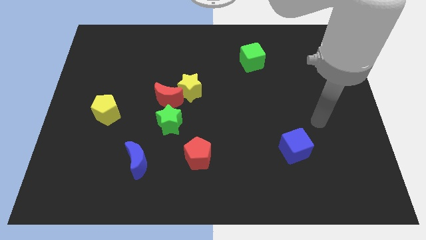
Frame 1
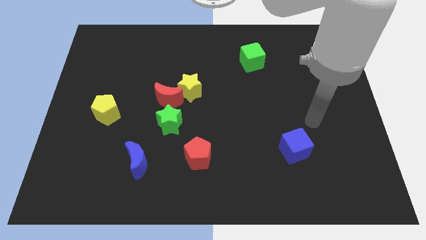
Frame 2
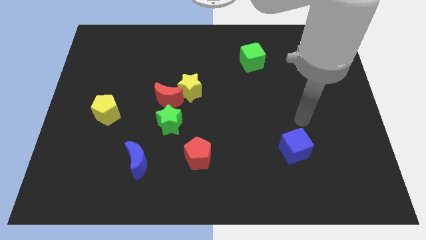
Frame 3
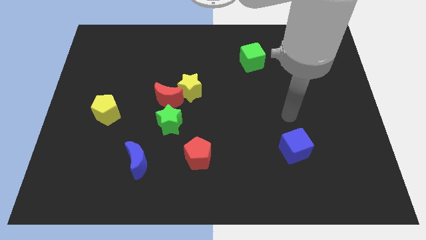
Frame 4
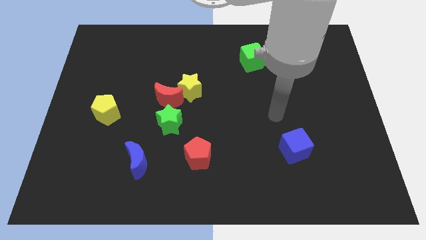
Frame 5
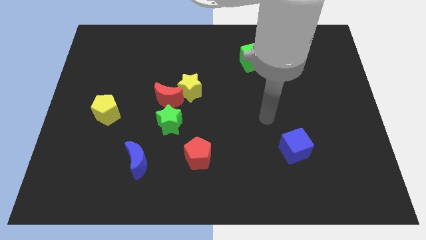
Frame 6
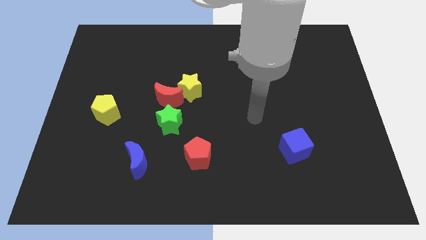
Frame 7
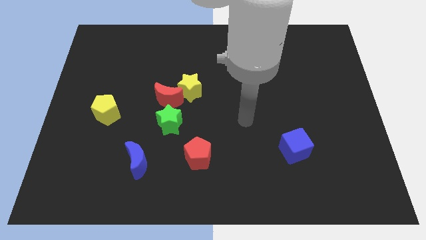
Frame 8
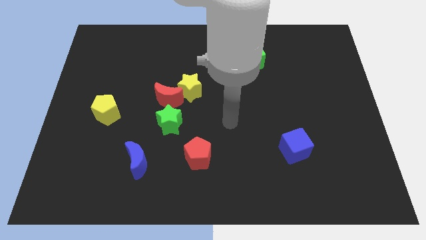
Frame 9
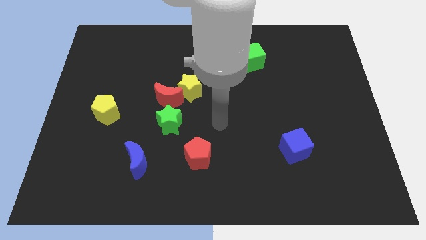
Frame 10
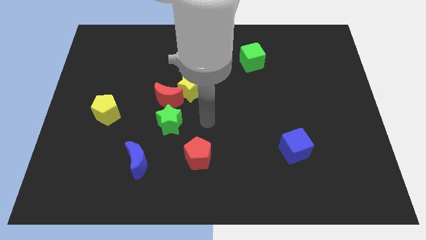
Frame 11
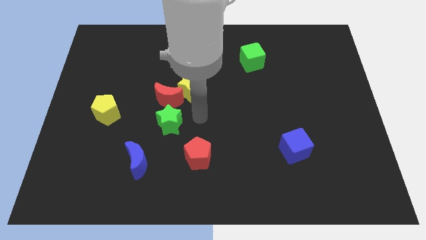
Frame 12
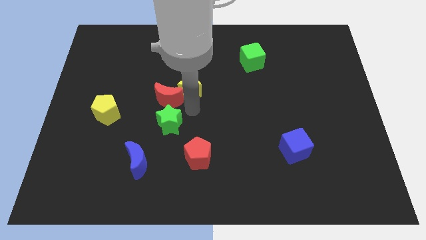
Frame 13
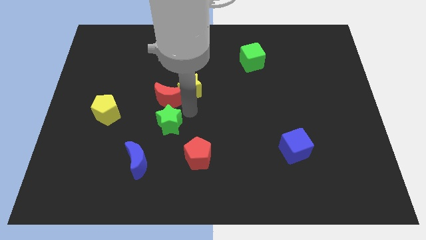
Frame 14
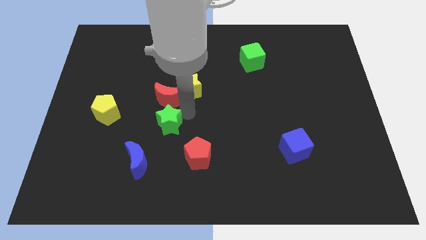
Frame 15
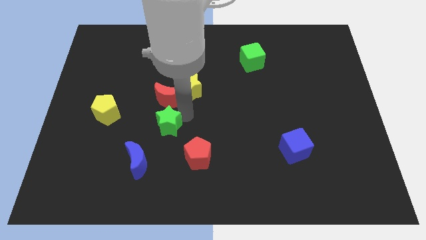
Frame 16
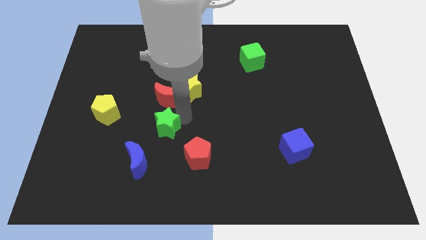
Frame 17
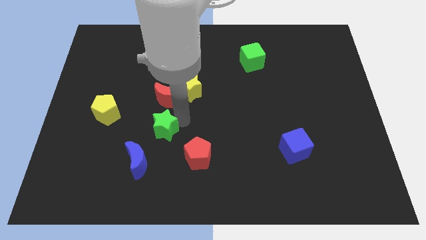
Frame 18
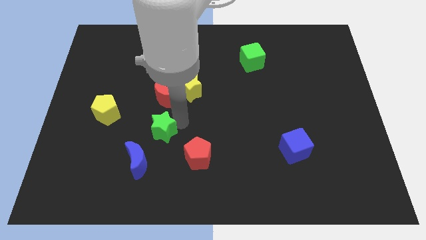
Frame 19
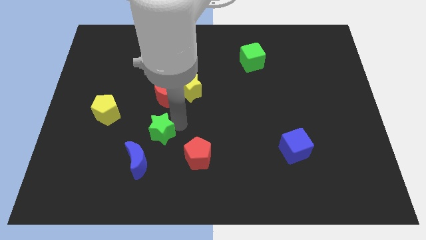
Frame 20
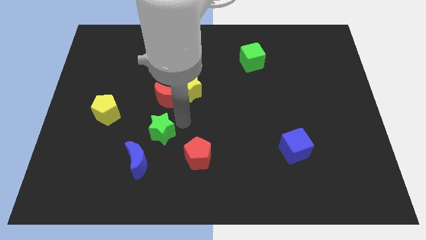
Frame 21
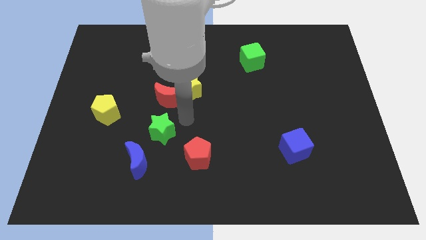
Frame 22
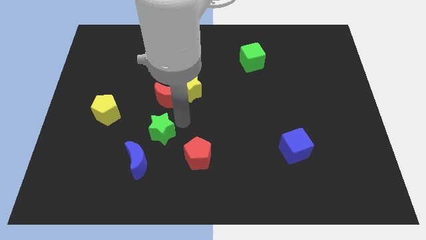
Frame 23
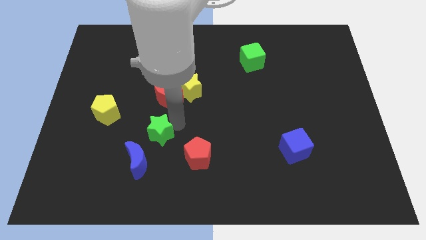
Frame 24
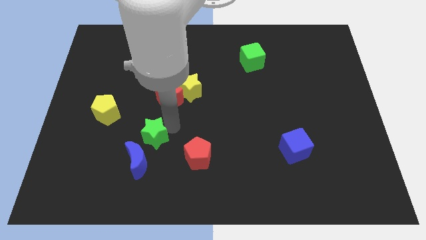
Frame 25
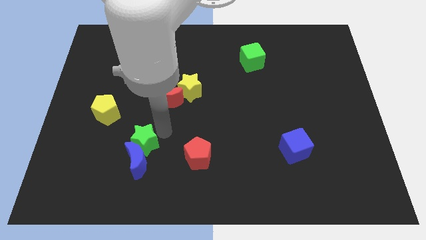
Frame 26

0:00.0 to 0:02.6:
slide the green star a little bit downwards and left diagonally

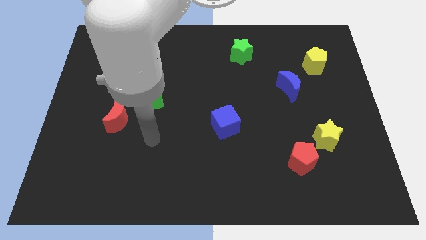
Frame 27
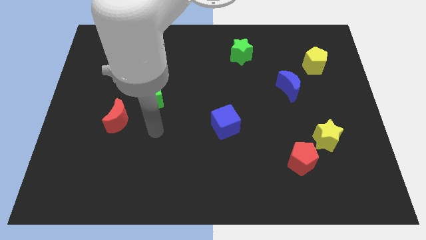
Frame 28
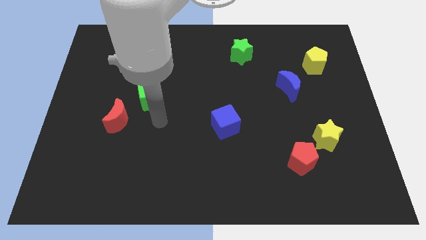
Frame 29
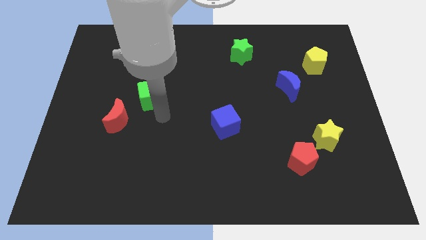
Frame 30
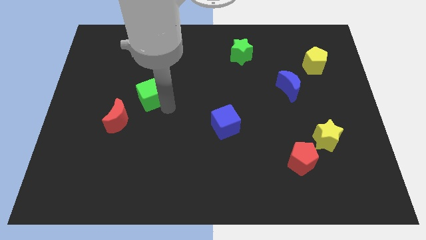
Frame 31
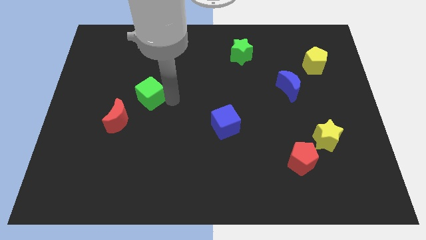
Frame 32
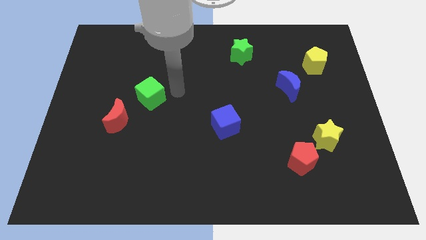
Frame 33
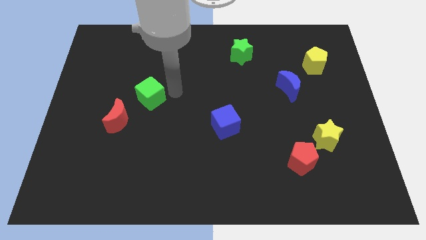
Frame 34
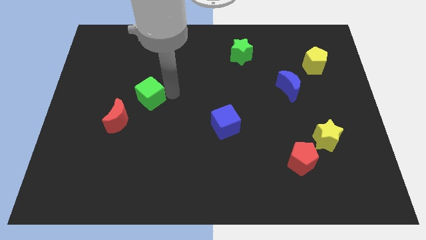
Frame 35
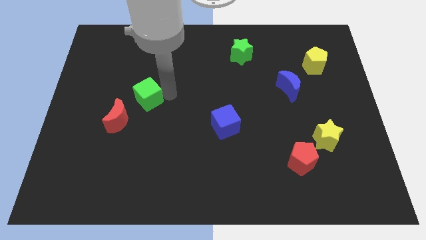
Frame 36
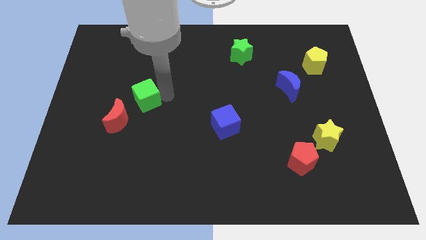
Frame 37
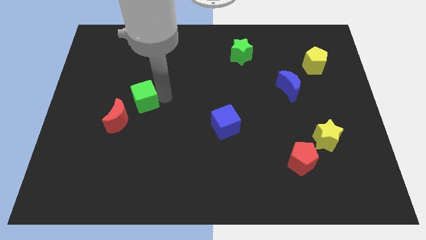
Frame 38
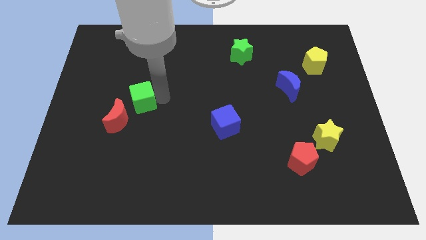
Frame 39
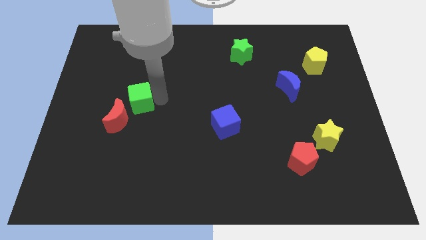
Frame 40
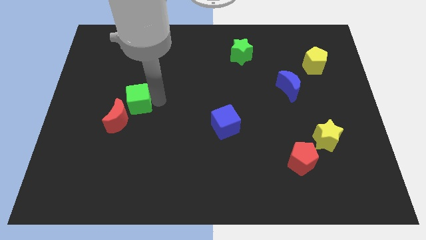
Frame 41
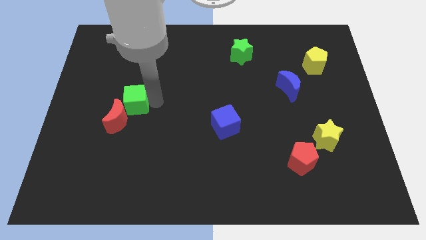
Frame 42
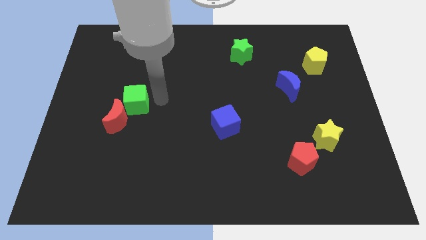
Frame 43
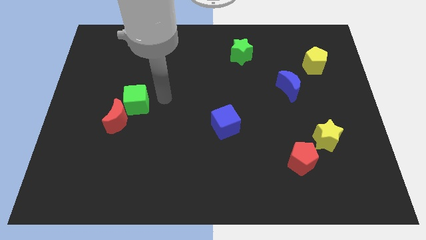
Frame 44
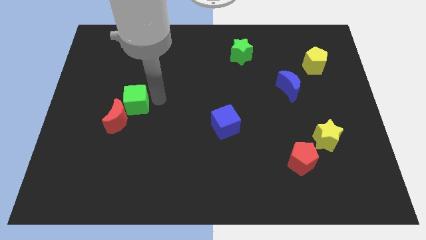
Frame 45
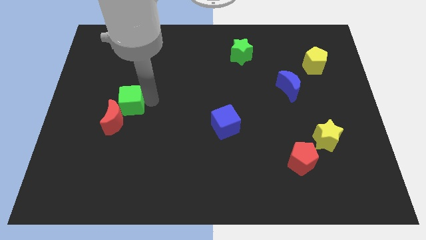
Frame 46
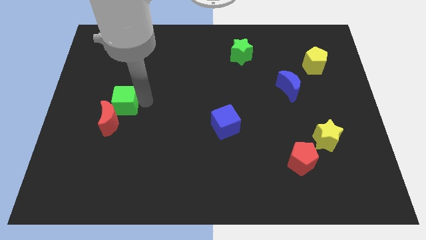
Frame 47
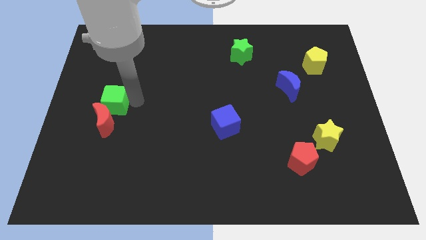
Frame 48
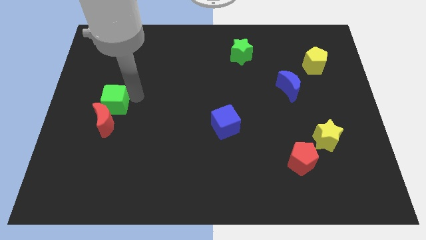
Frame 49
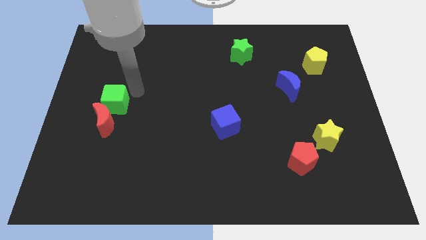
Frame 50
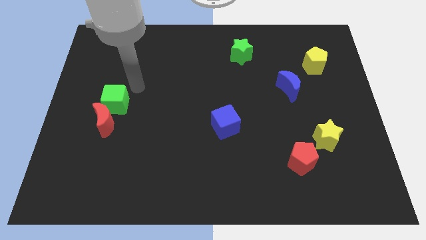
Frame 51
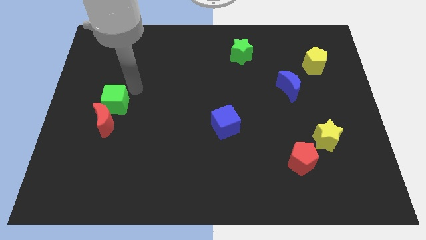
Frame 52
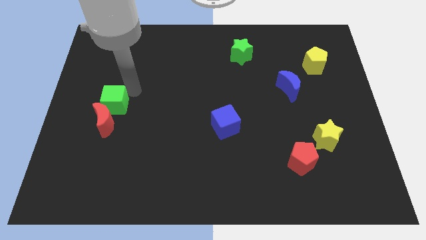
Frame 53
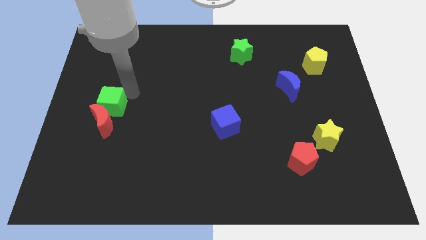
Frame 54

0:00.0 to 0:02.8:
slide the green cube a little downwards and then to the left

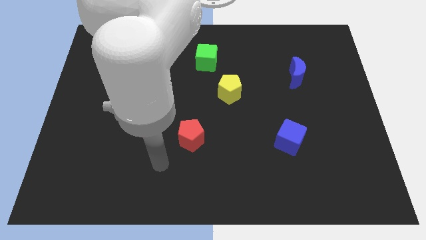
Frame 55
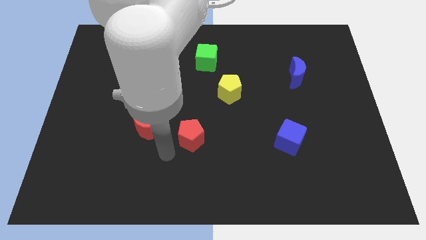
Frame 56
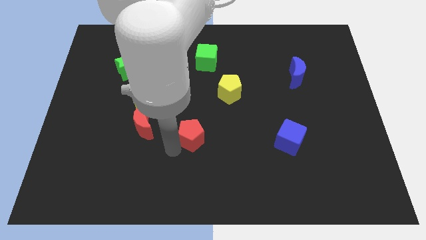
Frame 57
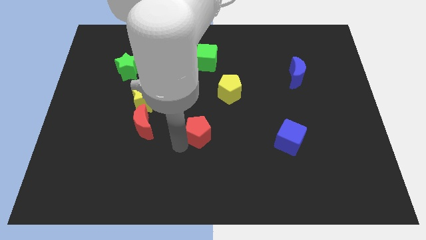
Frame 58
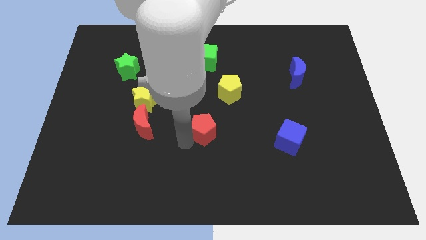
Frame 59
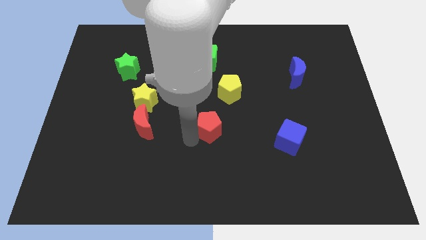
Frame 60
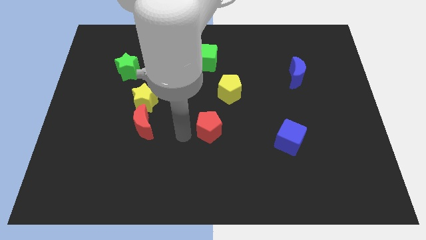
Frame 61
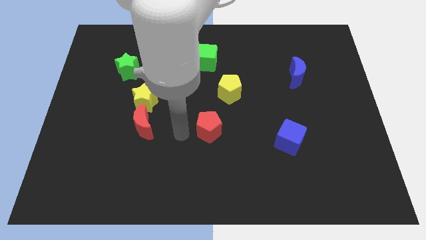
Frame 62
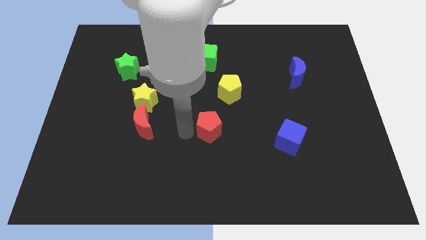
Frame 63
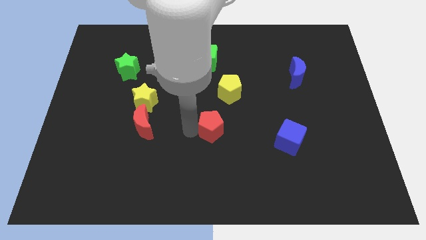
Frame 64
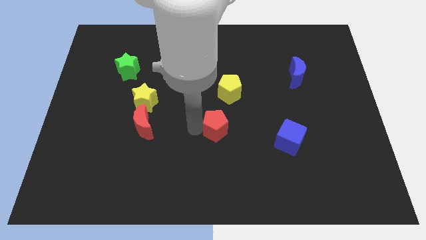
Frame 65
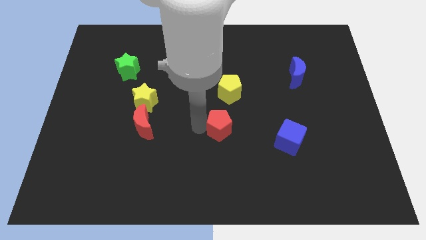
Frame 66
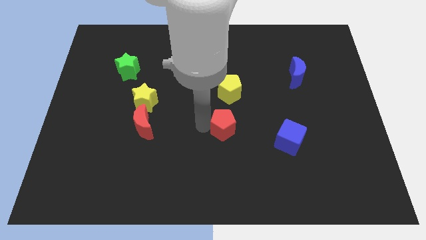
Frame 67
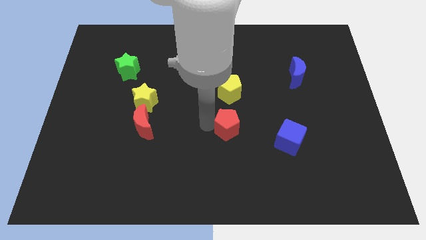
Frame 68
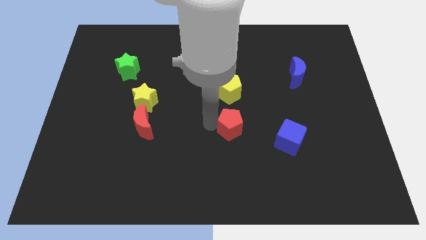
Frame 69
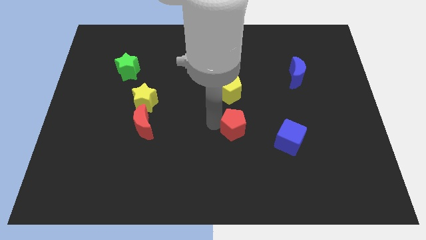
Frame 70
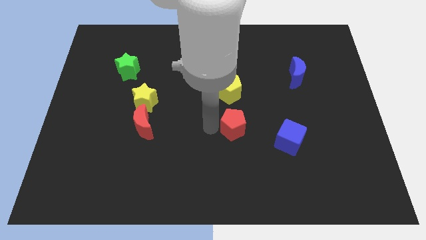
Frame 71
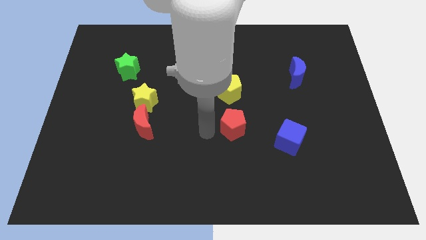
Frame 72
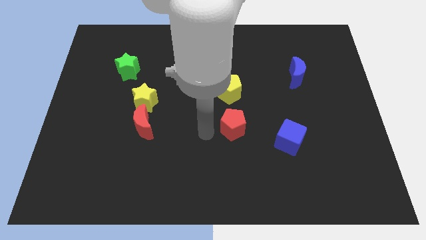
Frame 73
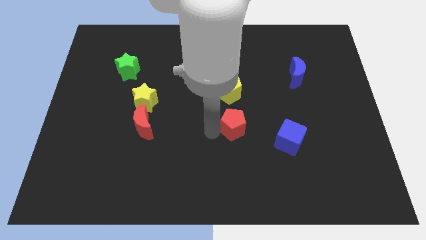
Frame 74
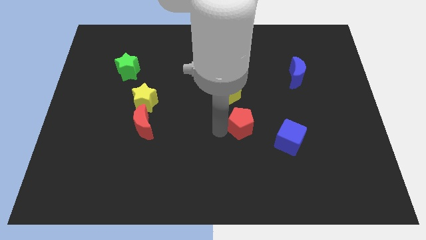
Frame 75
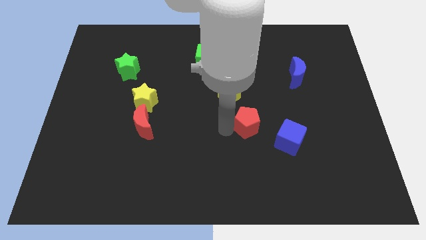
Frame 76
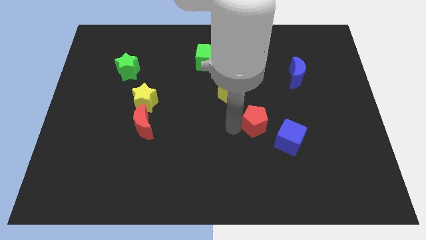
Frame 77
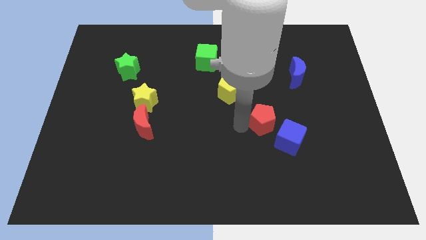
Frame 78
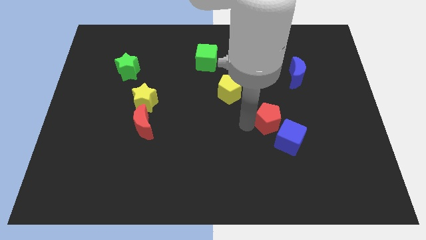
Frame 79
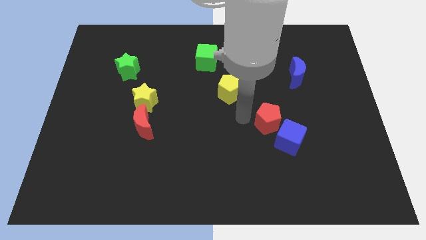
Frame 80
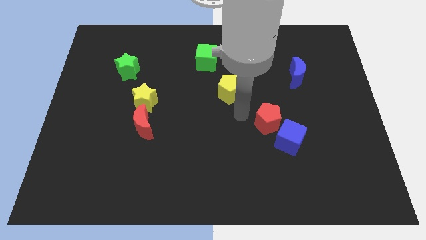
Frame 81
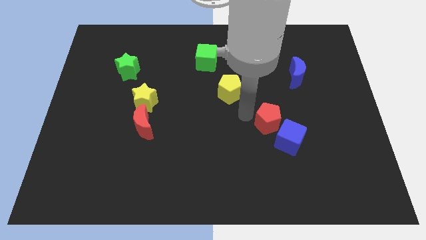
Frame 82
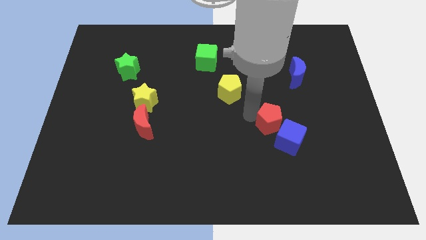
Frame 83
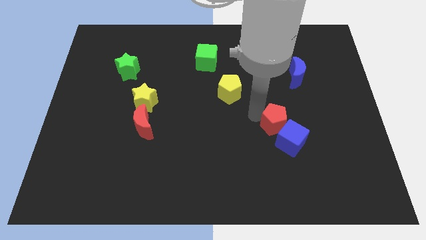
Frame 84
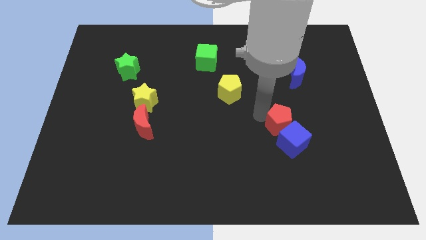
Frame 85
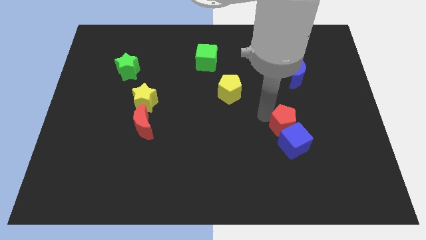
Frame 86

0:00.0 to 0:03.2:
push the red pentagon right
